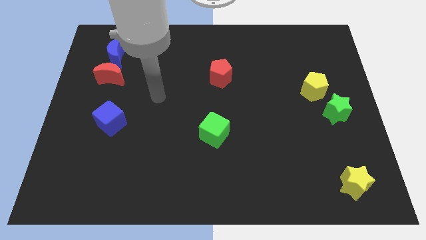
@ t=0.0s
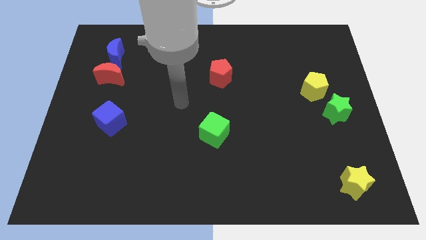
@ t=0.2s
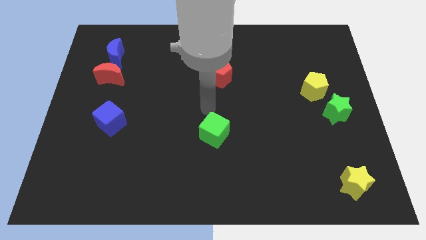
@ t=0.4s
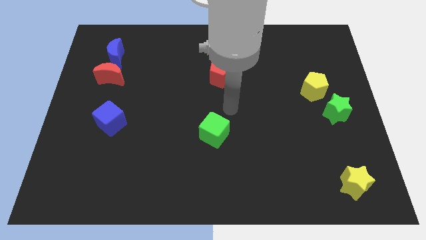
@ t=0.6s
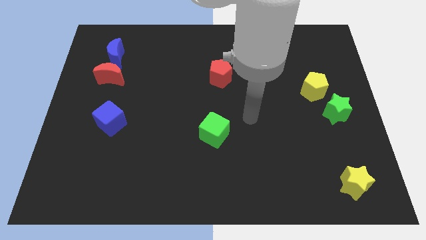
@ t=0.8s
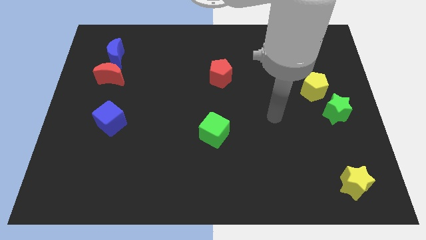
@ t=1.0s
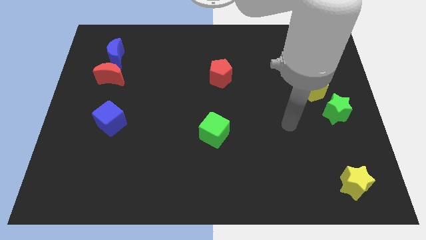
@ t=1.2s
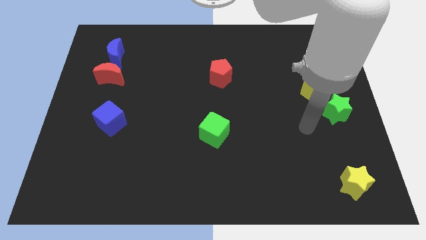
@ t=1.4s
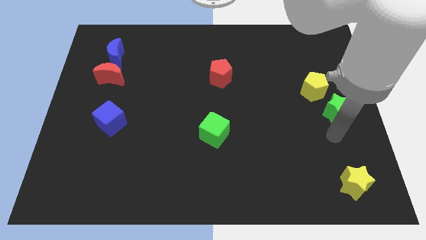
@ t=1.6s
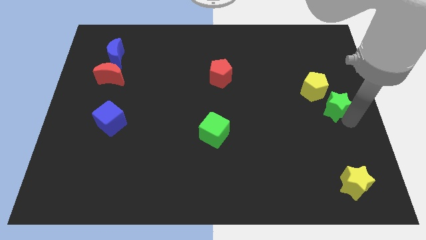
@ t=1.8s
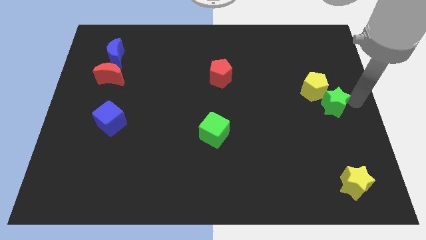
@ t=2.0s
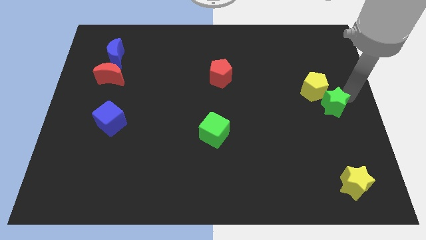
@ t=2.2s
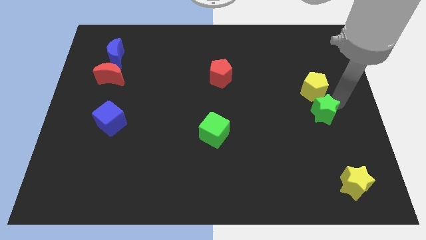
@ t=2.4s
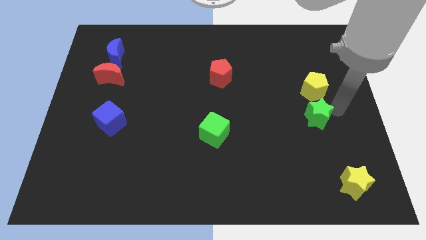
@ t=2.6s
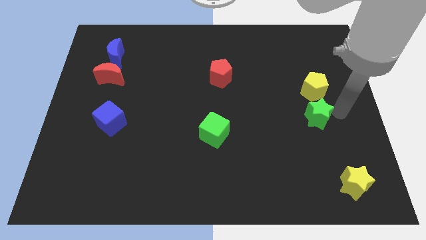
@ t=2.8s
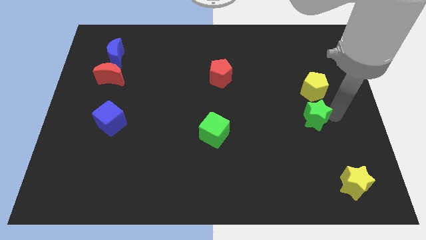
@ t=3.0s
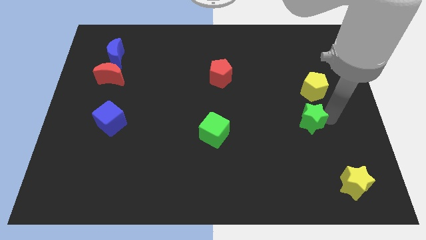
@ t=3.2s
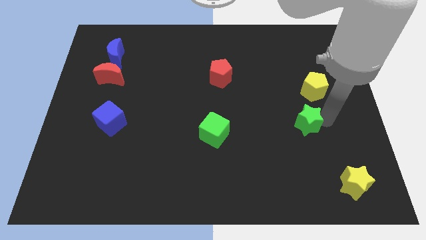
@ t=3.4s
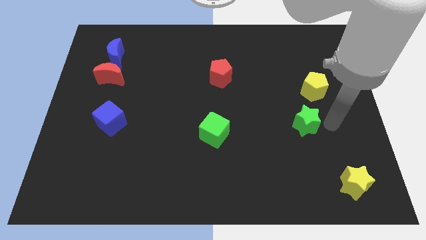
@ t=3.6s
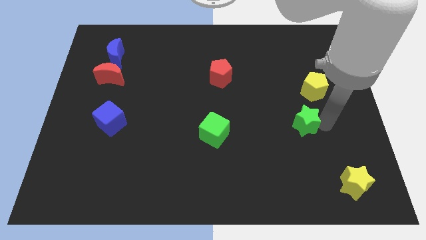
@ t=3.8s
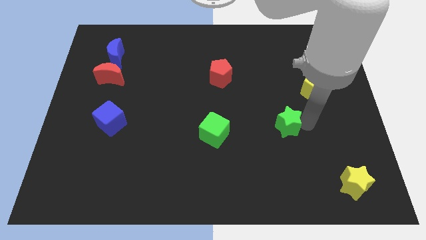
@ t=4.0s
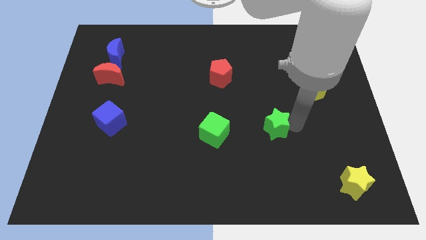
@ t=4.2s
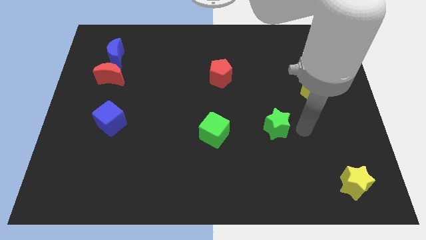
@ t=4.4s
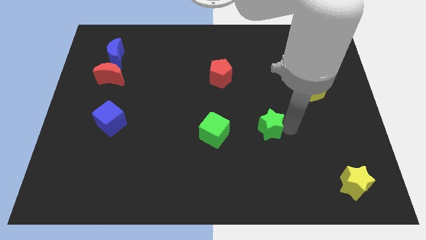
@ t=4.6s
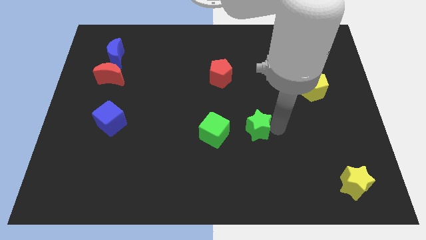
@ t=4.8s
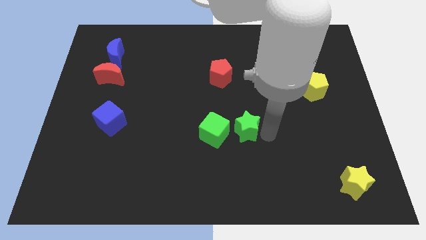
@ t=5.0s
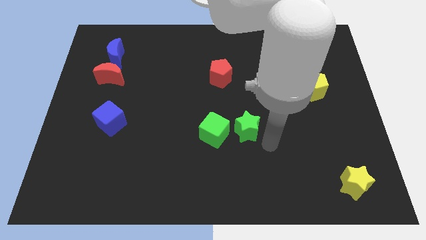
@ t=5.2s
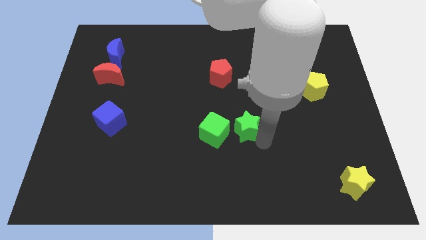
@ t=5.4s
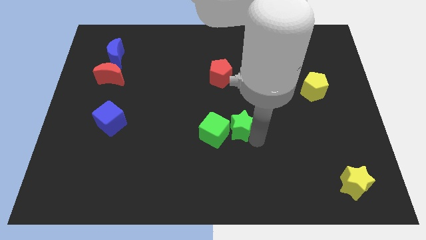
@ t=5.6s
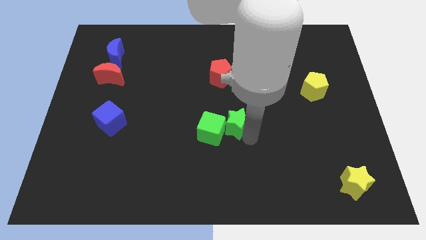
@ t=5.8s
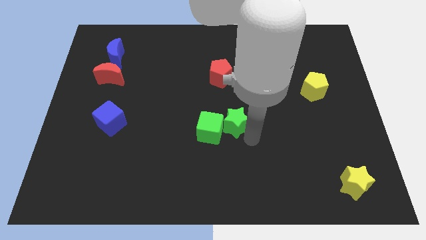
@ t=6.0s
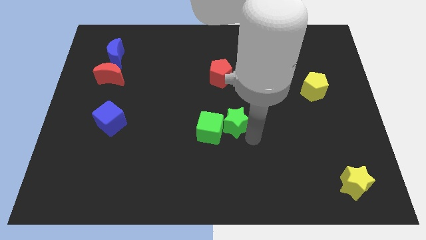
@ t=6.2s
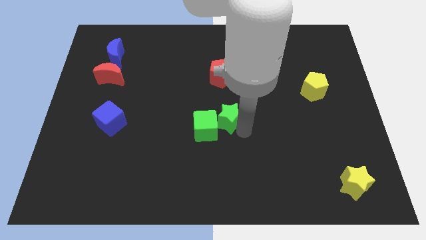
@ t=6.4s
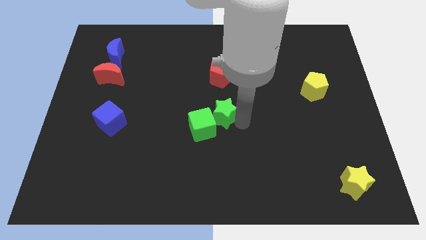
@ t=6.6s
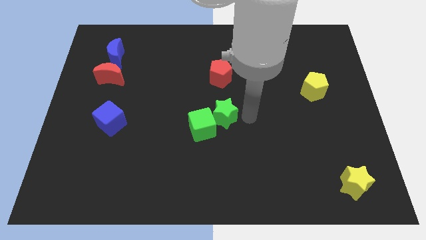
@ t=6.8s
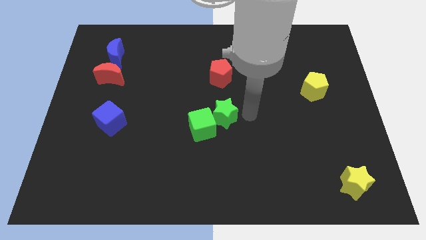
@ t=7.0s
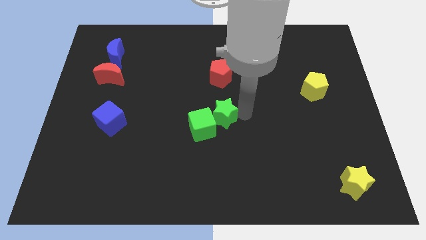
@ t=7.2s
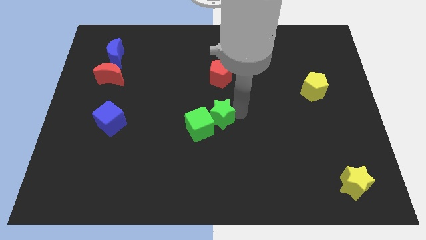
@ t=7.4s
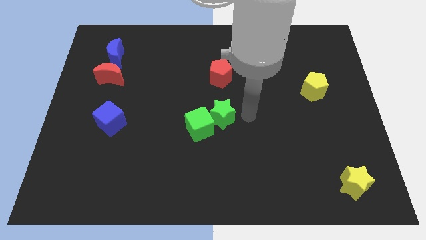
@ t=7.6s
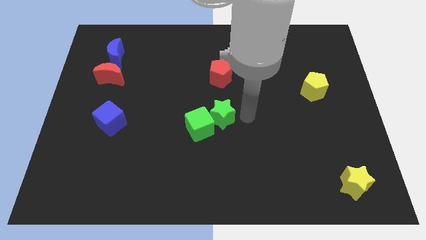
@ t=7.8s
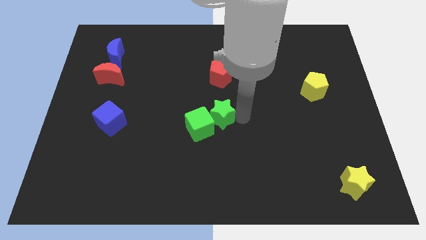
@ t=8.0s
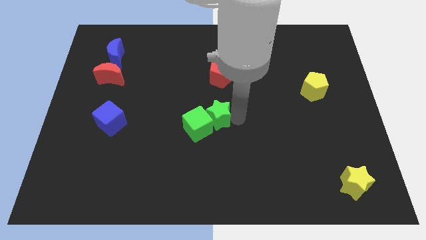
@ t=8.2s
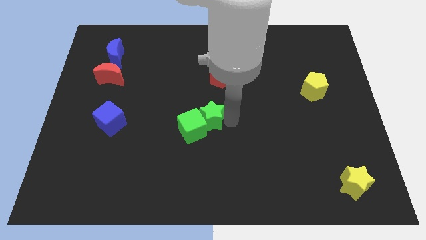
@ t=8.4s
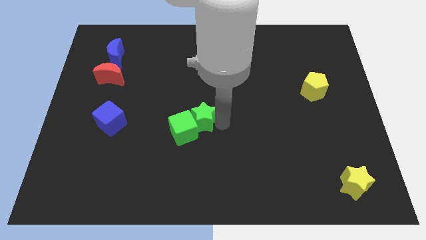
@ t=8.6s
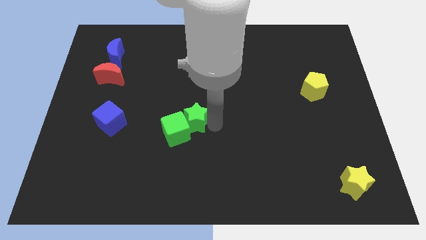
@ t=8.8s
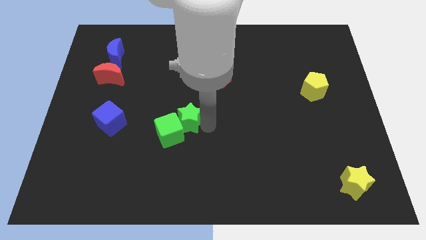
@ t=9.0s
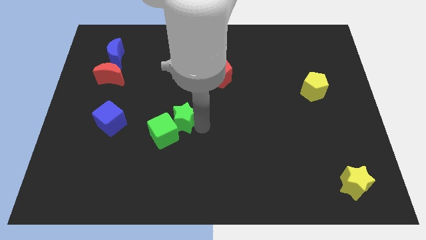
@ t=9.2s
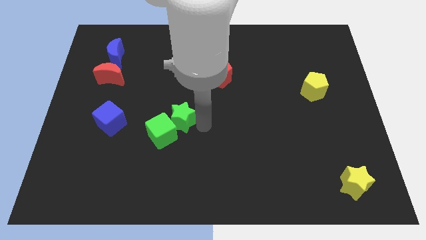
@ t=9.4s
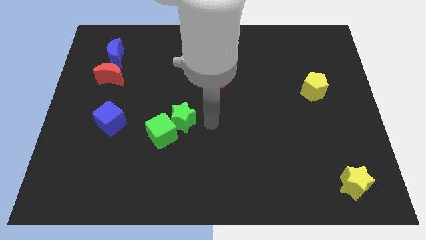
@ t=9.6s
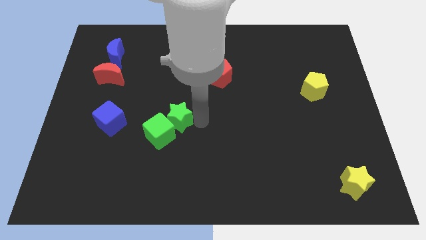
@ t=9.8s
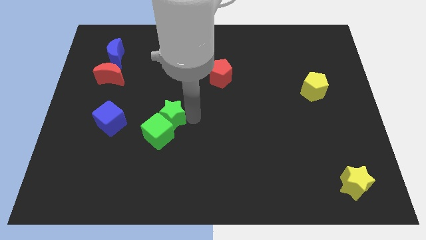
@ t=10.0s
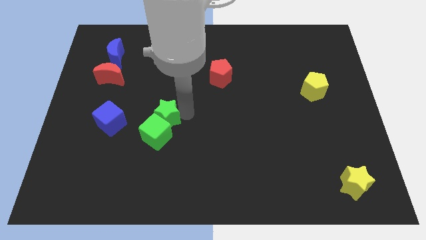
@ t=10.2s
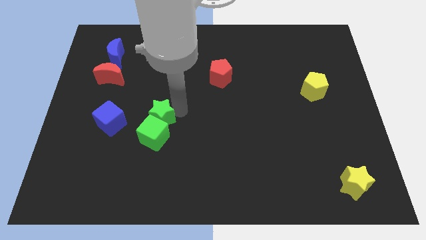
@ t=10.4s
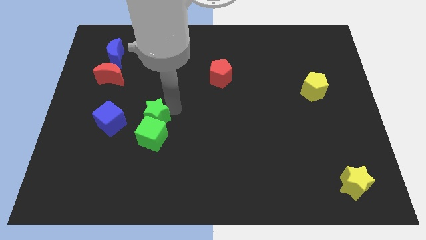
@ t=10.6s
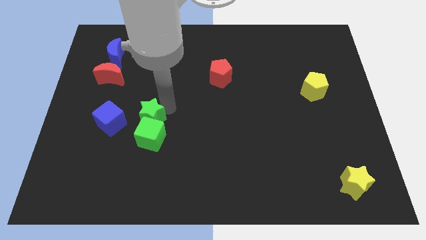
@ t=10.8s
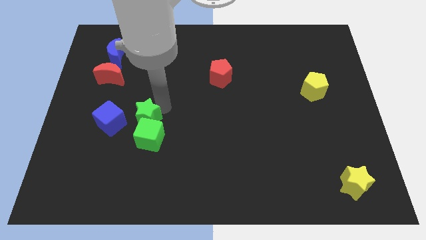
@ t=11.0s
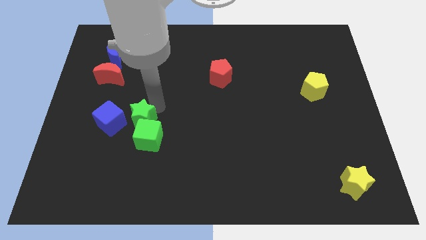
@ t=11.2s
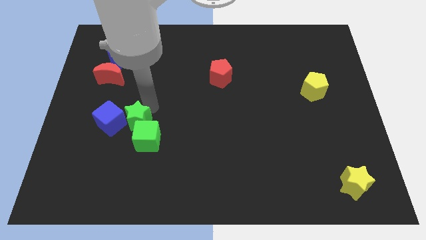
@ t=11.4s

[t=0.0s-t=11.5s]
push the green star close to the blue cube

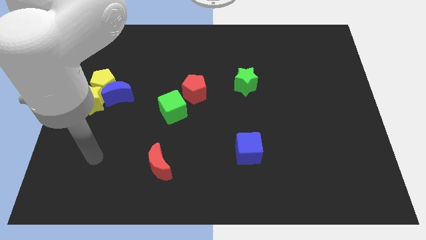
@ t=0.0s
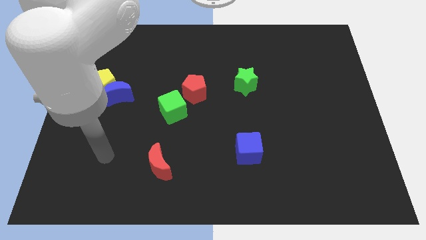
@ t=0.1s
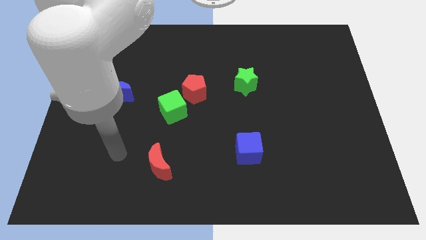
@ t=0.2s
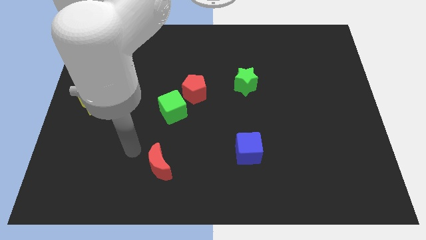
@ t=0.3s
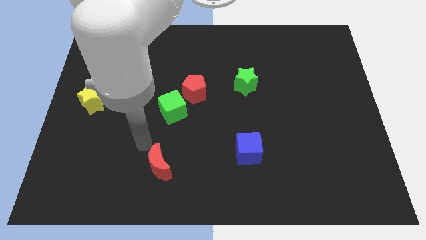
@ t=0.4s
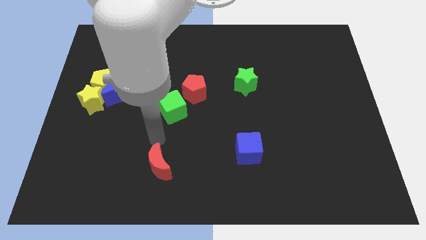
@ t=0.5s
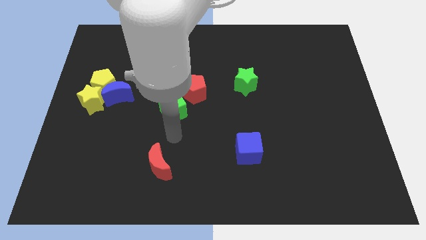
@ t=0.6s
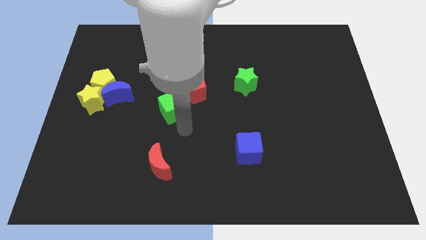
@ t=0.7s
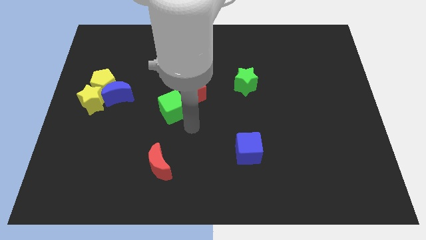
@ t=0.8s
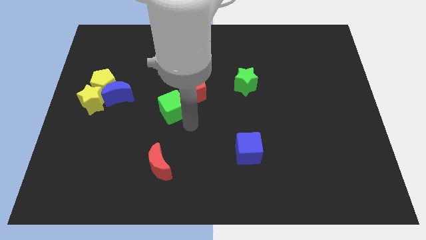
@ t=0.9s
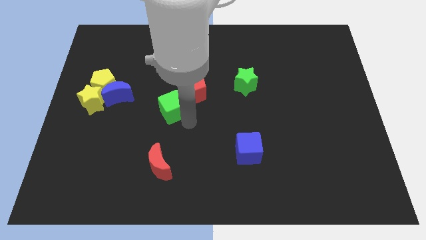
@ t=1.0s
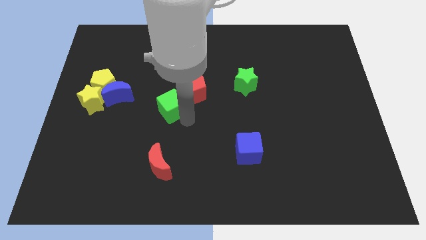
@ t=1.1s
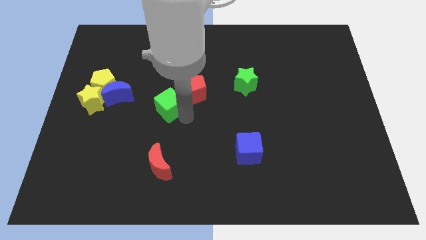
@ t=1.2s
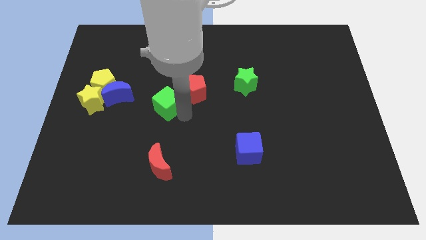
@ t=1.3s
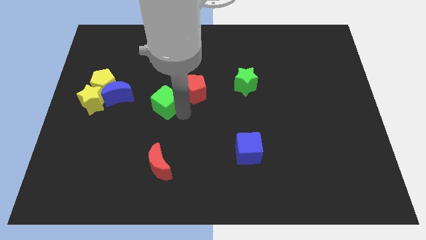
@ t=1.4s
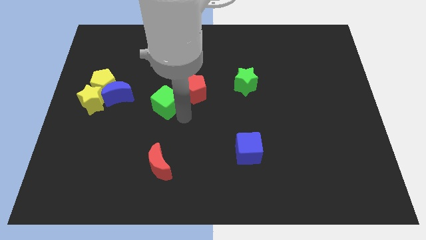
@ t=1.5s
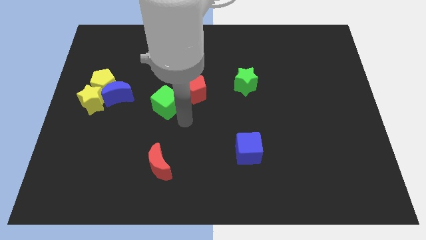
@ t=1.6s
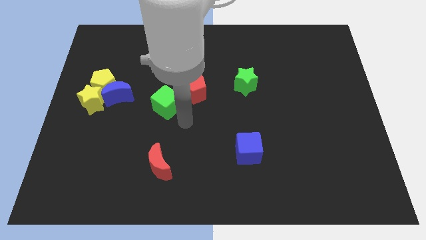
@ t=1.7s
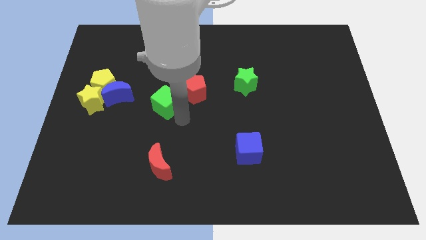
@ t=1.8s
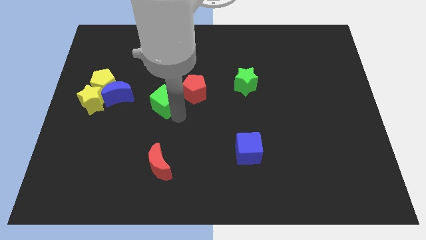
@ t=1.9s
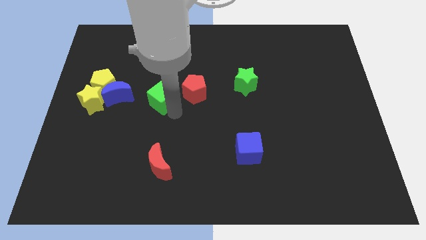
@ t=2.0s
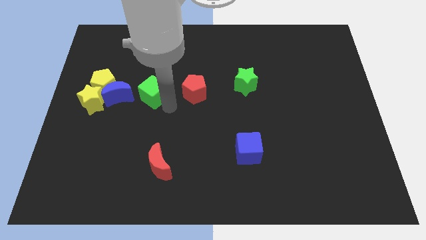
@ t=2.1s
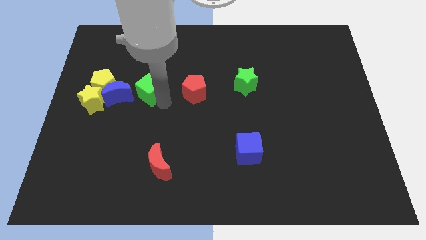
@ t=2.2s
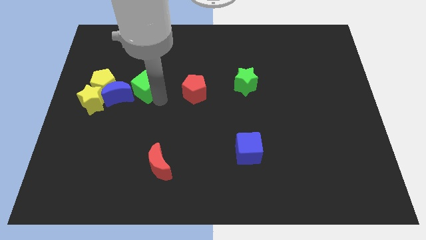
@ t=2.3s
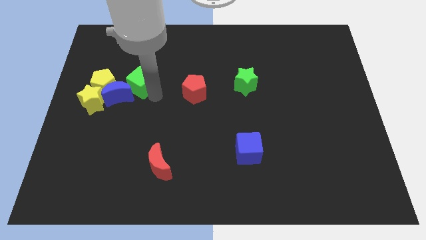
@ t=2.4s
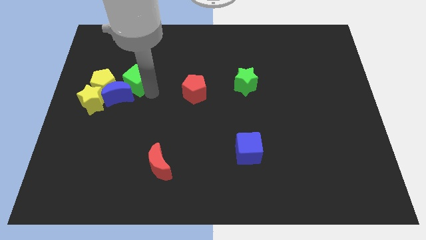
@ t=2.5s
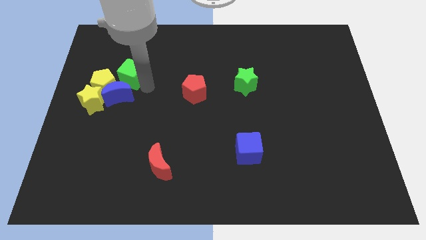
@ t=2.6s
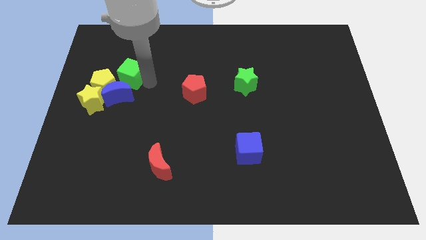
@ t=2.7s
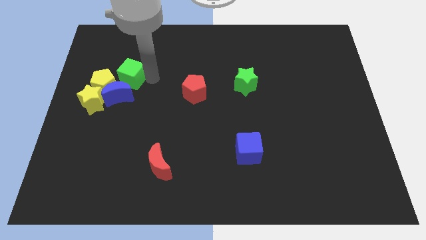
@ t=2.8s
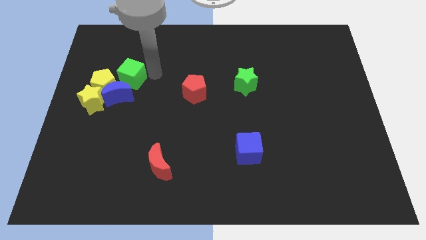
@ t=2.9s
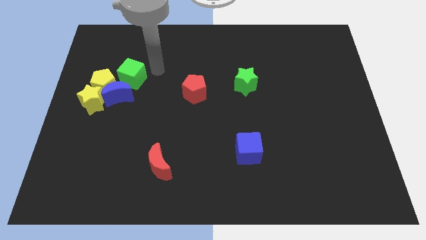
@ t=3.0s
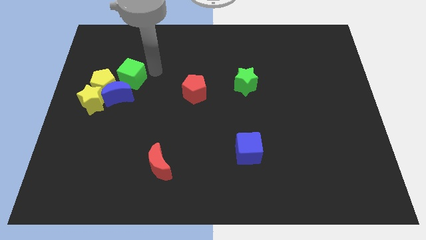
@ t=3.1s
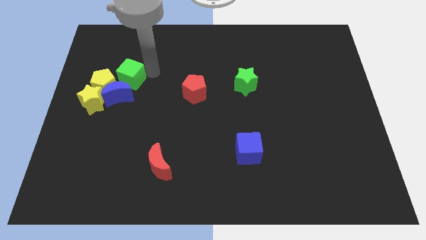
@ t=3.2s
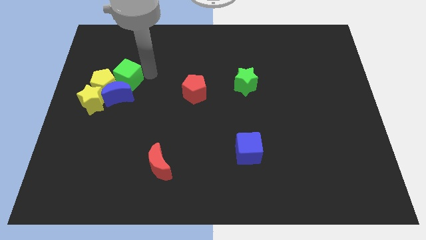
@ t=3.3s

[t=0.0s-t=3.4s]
slide the green cube close to the yellow pentagon
